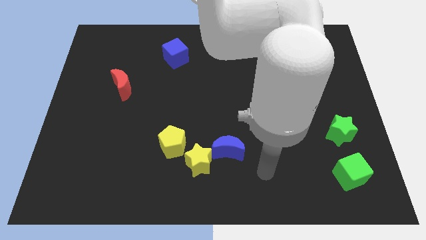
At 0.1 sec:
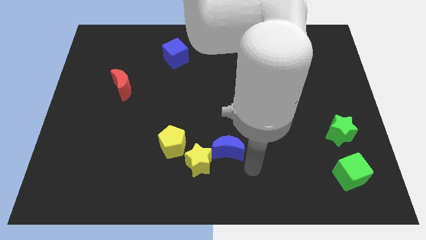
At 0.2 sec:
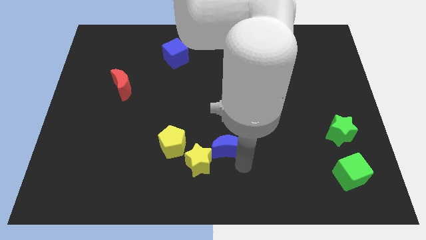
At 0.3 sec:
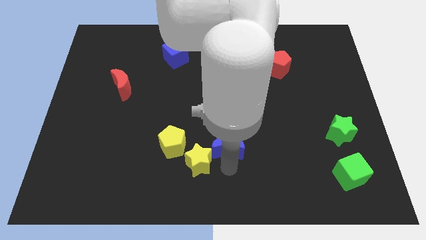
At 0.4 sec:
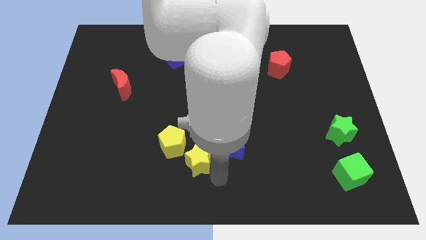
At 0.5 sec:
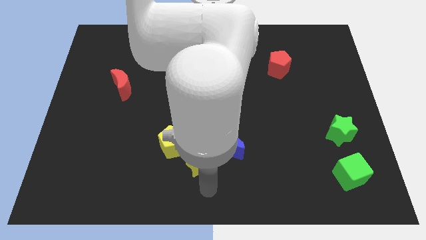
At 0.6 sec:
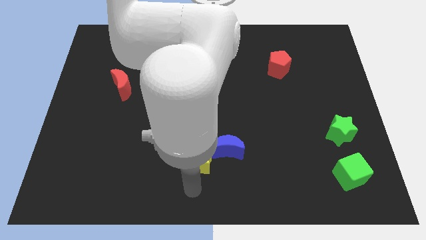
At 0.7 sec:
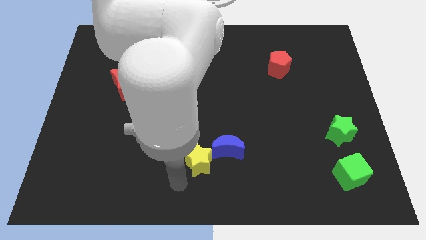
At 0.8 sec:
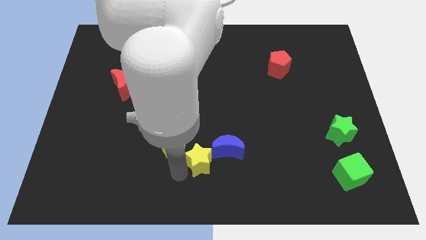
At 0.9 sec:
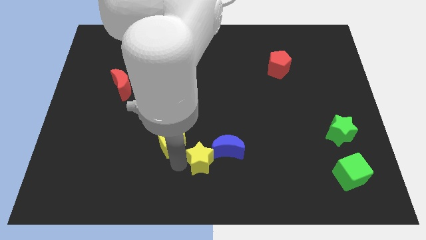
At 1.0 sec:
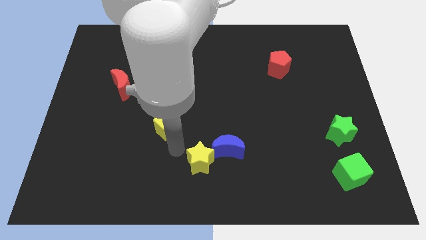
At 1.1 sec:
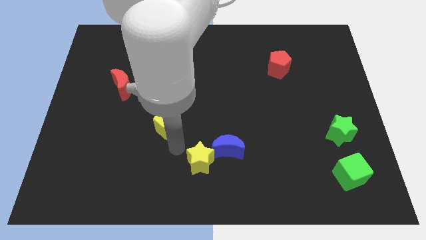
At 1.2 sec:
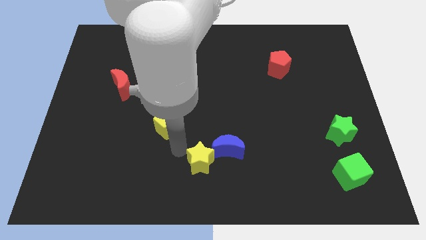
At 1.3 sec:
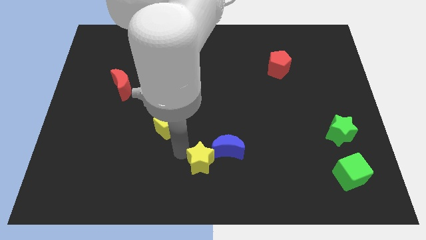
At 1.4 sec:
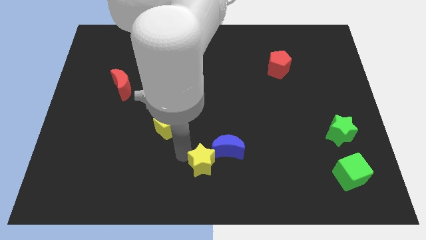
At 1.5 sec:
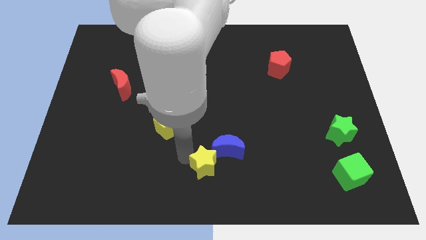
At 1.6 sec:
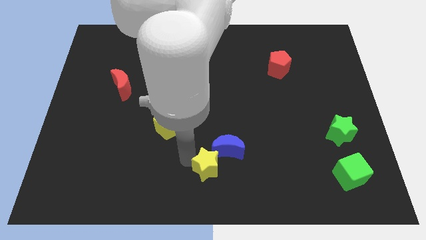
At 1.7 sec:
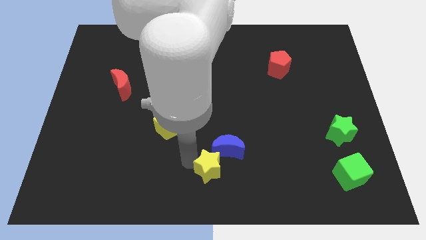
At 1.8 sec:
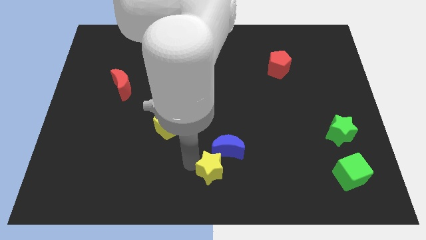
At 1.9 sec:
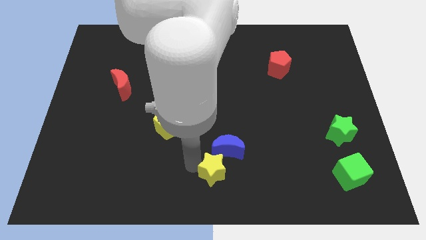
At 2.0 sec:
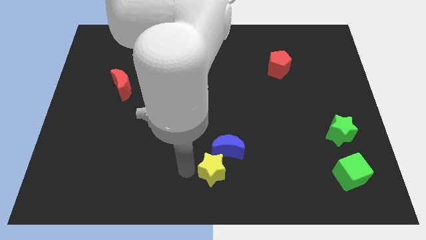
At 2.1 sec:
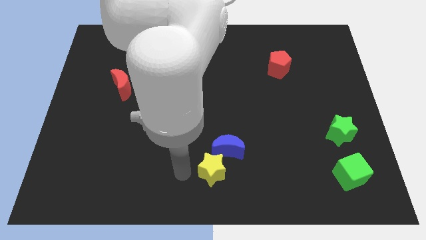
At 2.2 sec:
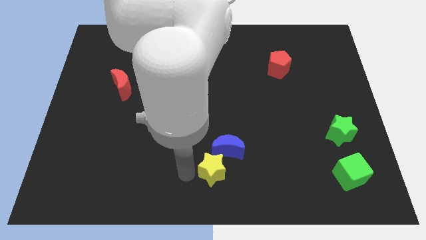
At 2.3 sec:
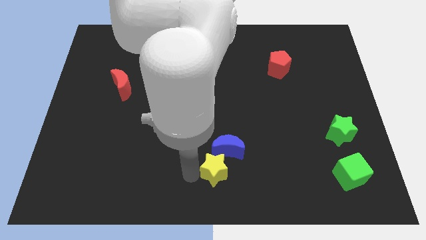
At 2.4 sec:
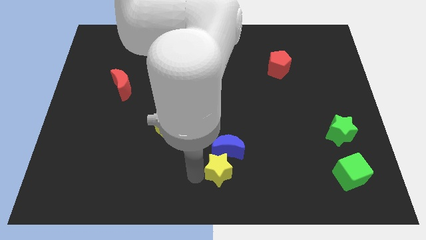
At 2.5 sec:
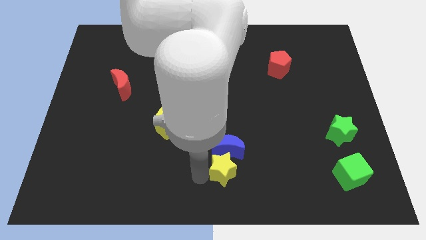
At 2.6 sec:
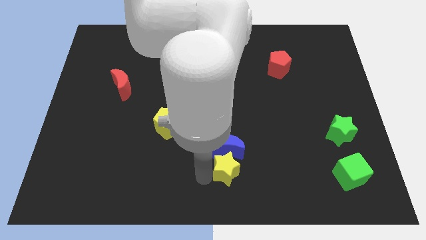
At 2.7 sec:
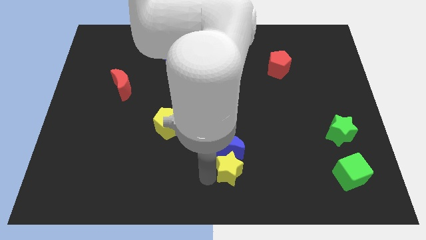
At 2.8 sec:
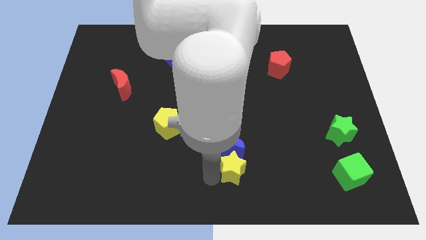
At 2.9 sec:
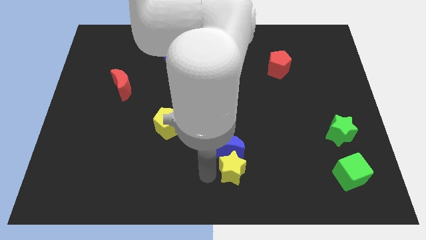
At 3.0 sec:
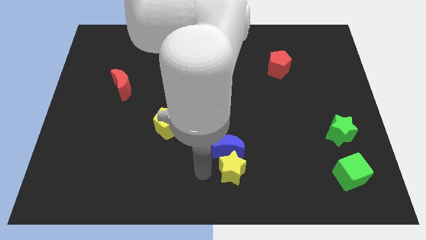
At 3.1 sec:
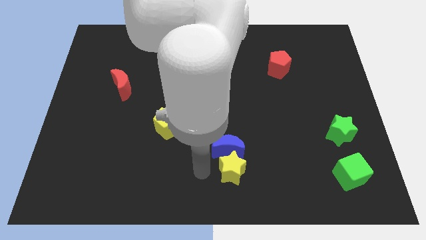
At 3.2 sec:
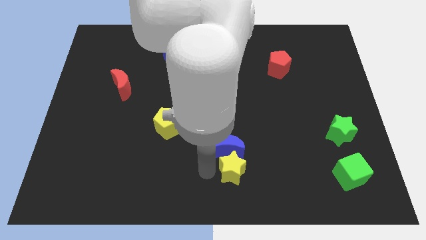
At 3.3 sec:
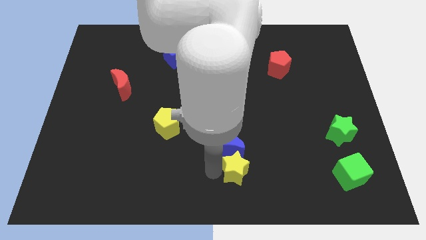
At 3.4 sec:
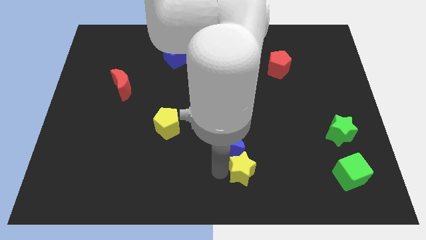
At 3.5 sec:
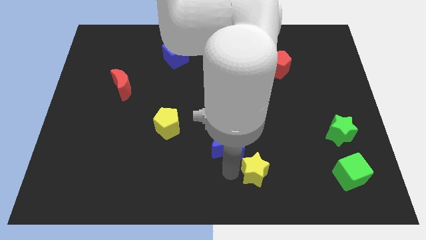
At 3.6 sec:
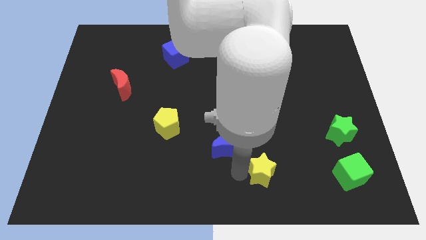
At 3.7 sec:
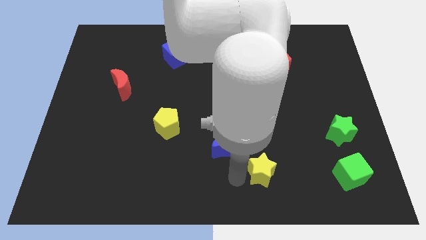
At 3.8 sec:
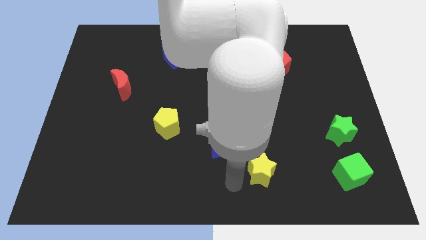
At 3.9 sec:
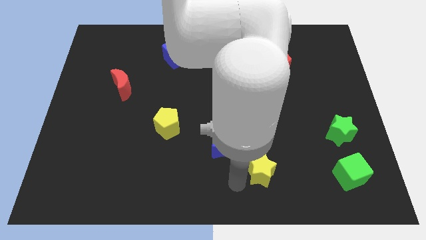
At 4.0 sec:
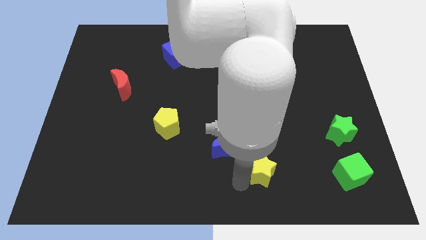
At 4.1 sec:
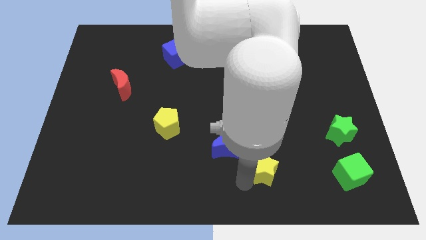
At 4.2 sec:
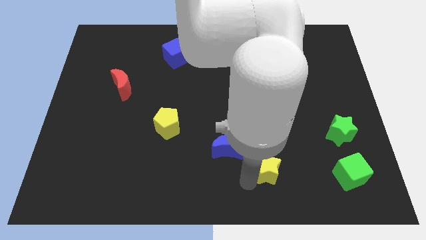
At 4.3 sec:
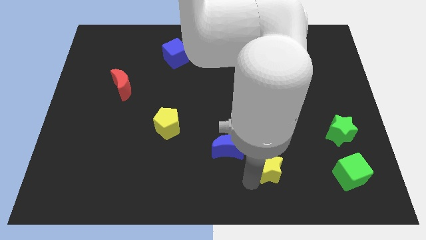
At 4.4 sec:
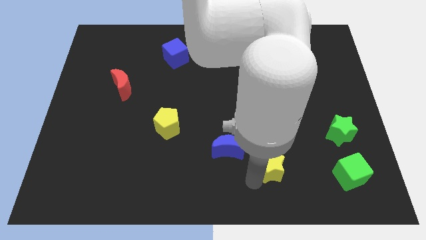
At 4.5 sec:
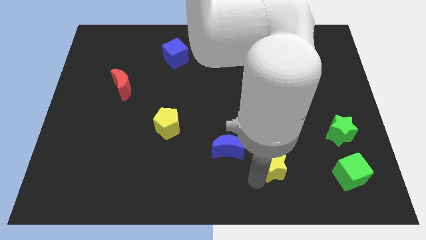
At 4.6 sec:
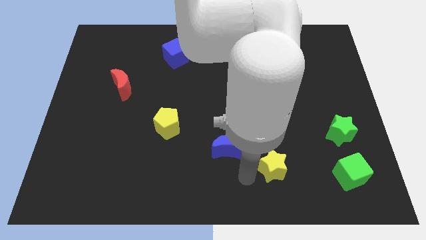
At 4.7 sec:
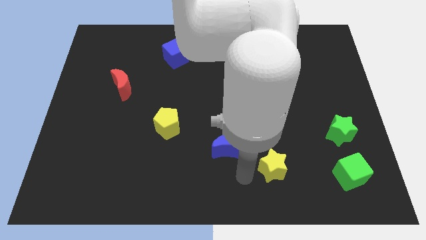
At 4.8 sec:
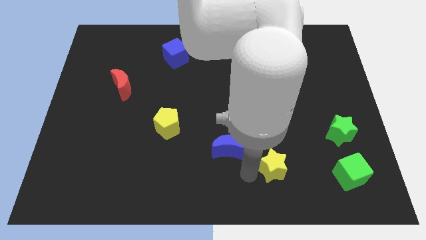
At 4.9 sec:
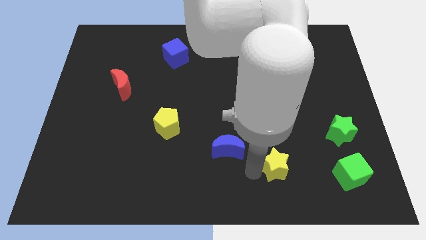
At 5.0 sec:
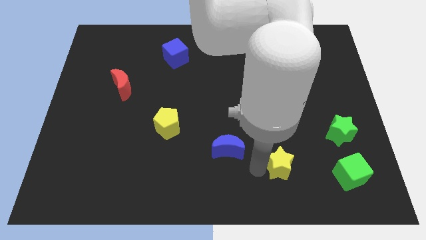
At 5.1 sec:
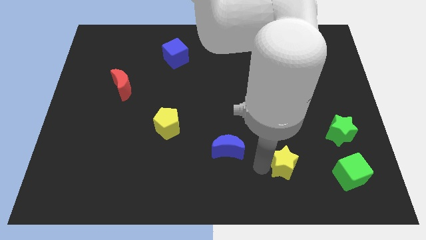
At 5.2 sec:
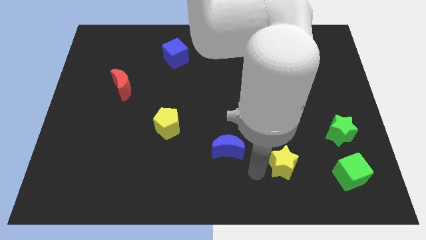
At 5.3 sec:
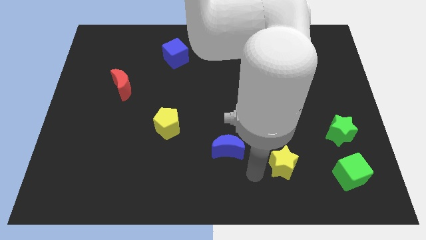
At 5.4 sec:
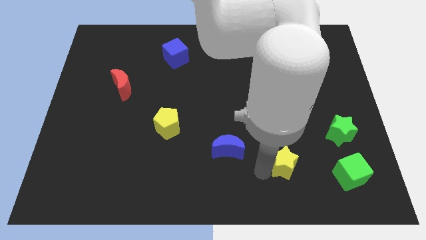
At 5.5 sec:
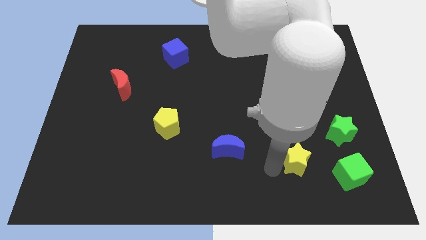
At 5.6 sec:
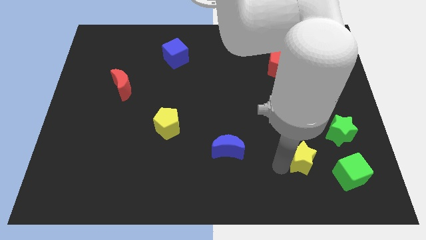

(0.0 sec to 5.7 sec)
put the yellow star to the bottom left of the green star
